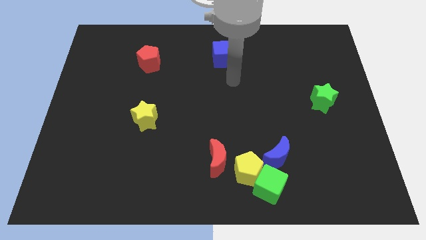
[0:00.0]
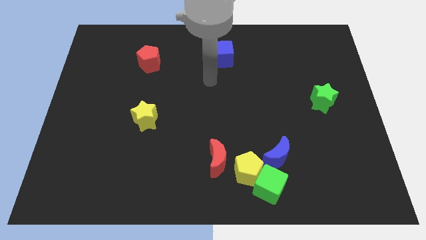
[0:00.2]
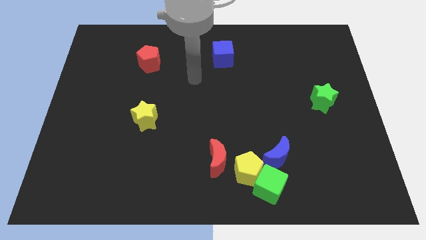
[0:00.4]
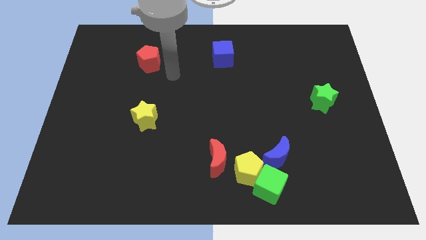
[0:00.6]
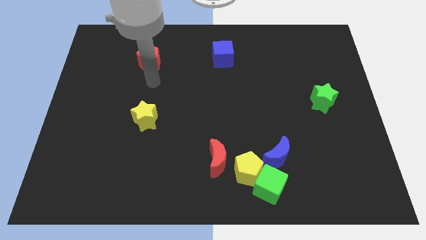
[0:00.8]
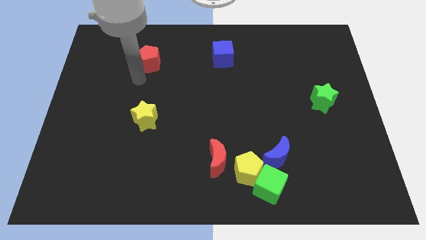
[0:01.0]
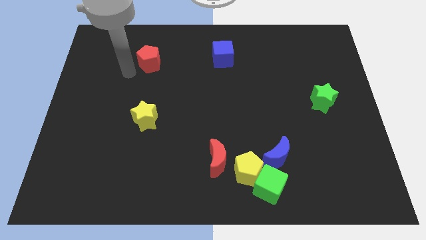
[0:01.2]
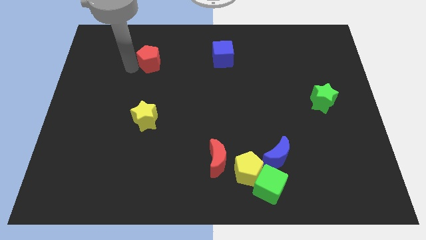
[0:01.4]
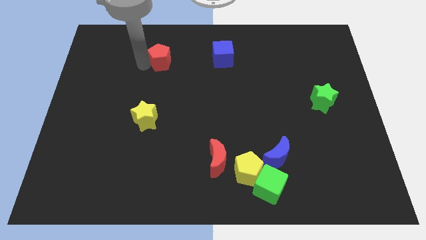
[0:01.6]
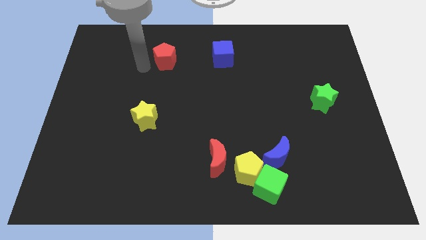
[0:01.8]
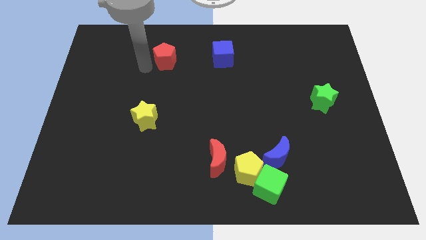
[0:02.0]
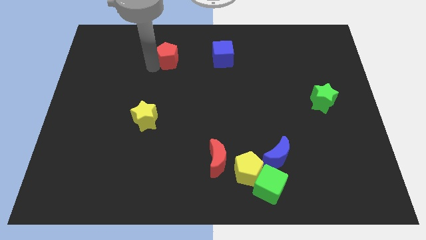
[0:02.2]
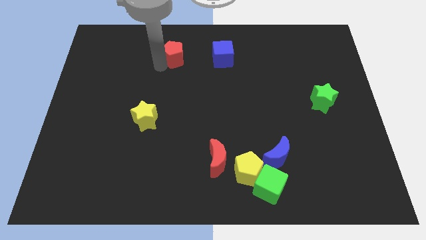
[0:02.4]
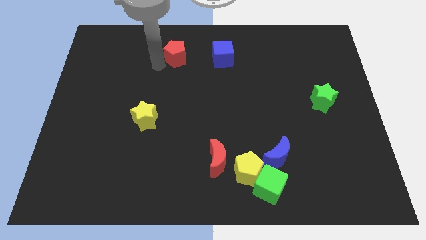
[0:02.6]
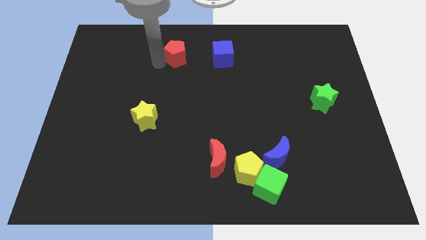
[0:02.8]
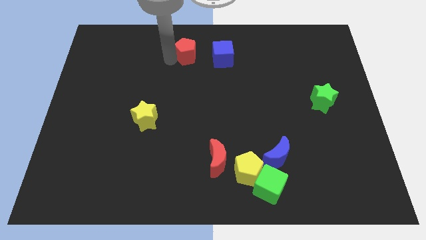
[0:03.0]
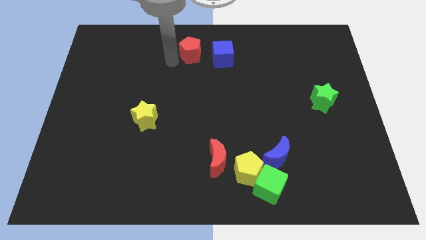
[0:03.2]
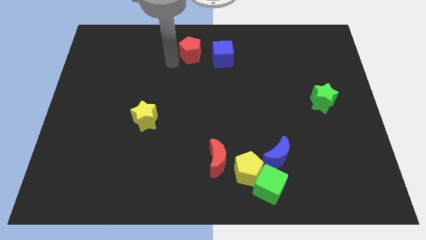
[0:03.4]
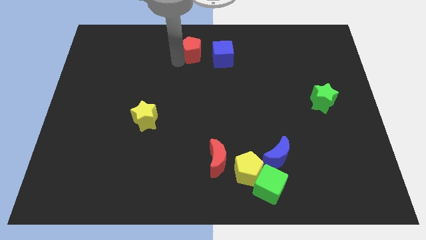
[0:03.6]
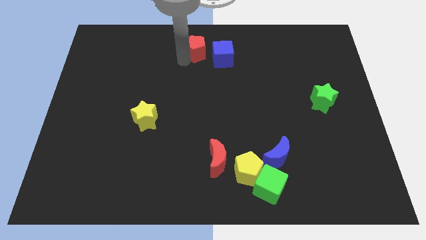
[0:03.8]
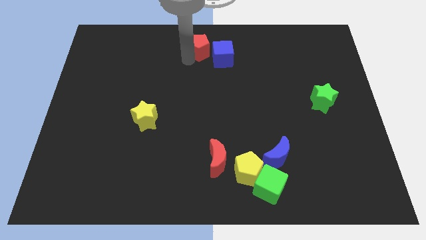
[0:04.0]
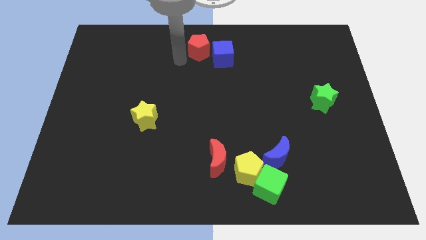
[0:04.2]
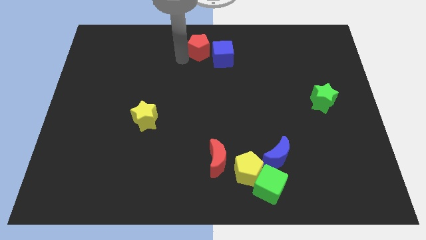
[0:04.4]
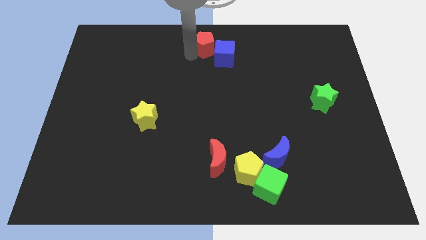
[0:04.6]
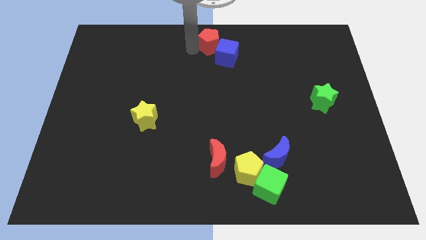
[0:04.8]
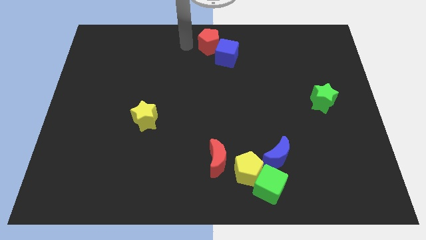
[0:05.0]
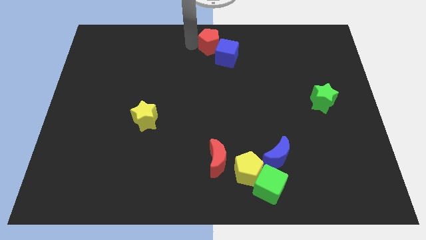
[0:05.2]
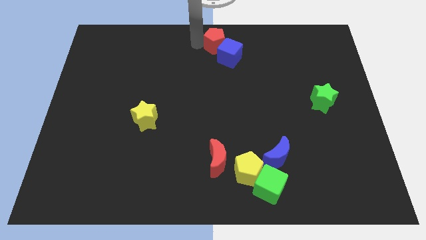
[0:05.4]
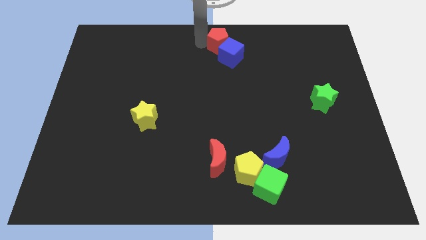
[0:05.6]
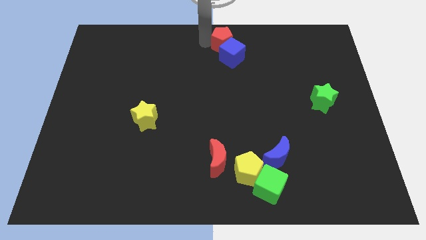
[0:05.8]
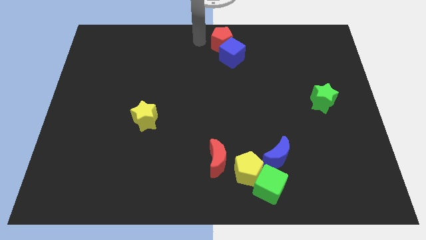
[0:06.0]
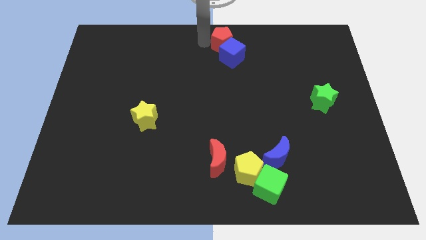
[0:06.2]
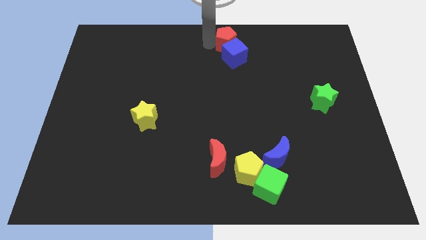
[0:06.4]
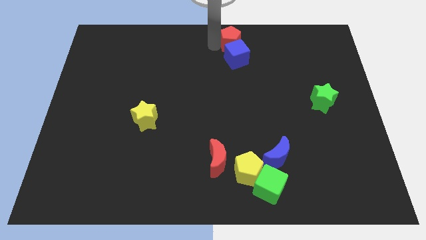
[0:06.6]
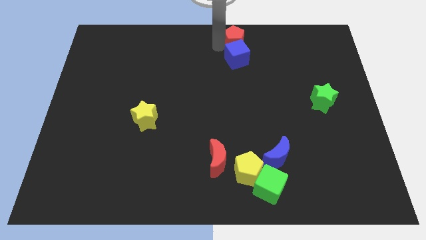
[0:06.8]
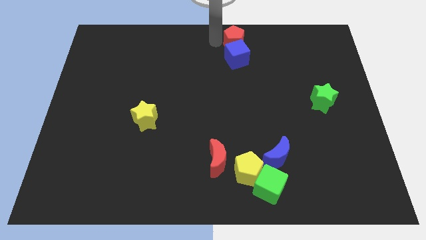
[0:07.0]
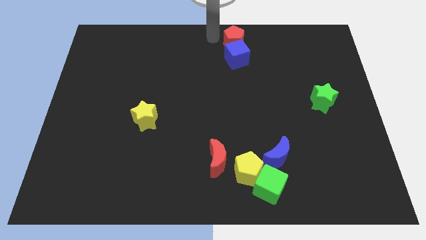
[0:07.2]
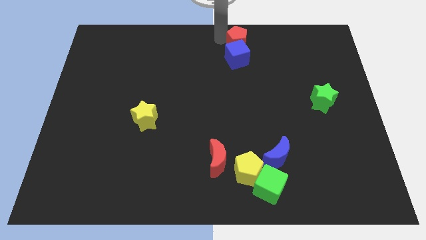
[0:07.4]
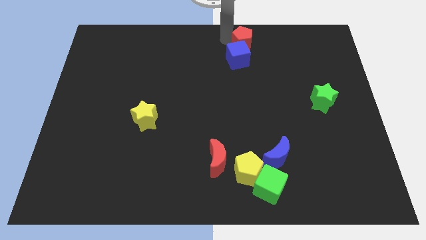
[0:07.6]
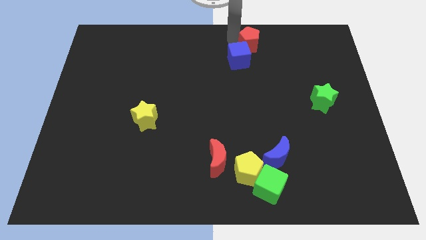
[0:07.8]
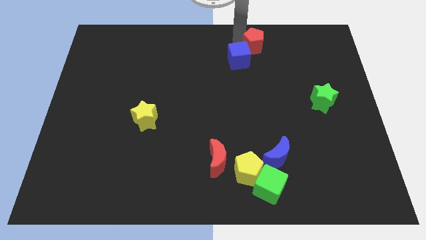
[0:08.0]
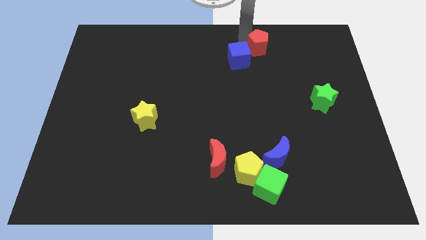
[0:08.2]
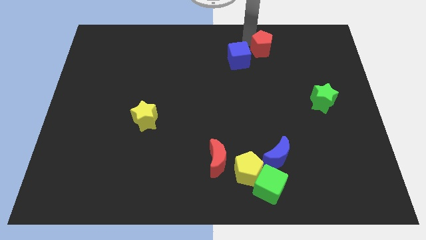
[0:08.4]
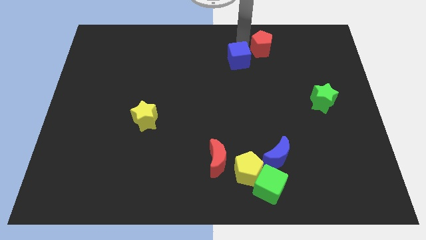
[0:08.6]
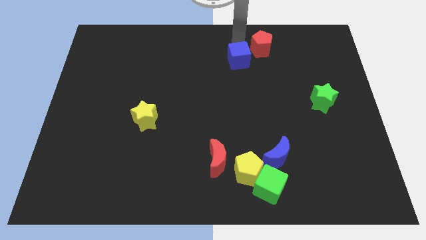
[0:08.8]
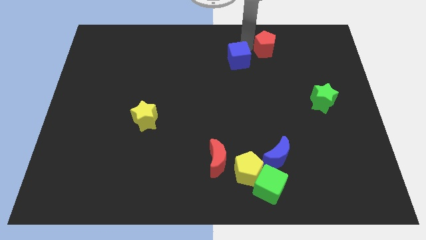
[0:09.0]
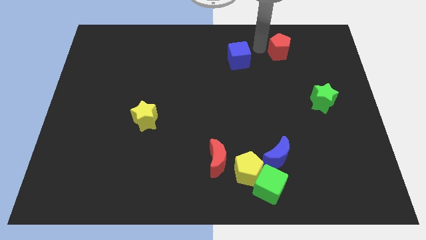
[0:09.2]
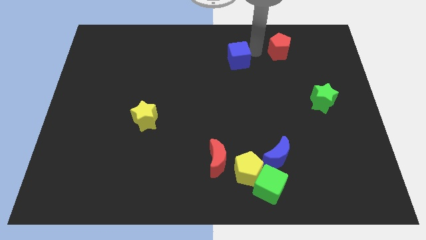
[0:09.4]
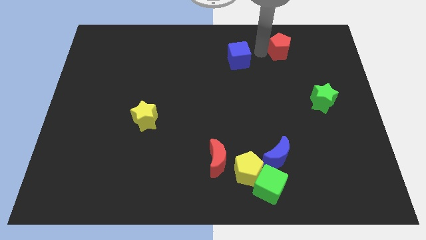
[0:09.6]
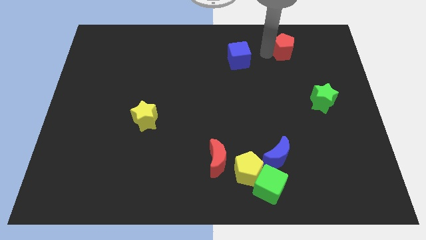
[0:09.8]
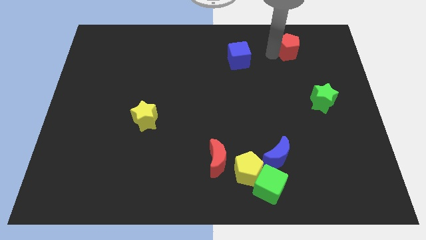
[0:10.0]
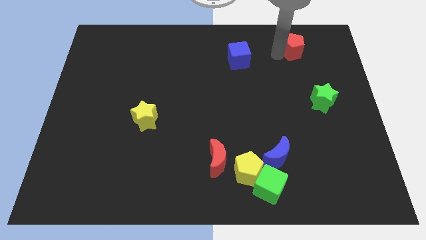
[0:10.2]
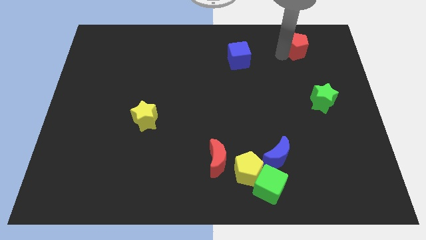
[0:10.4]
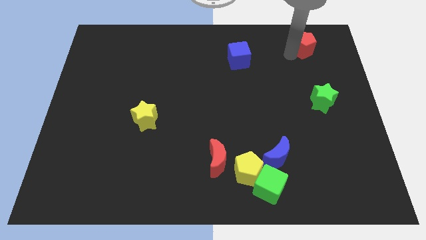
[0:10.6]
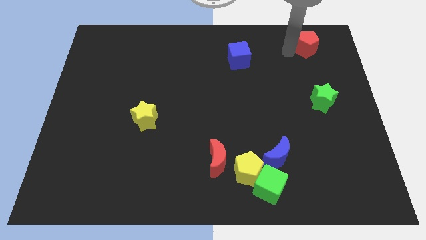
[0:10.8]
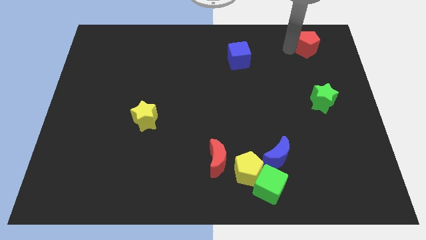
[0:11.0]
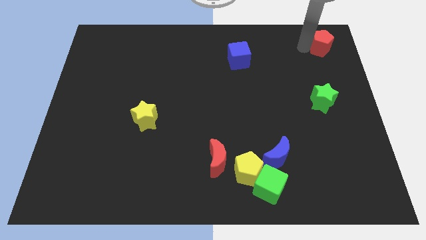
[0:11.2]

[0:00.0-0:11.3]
move the red pentagon to the upper right corner
